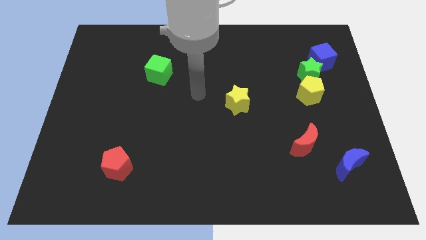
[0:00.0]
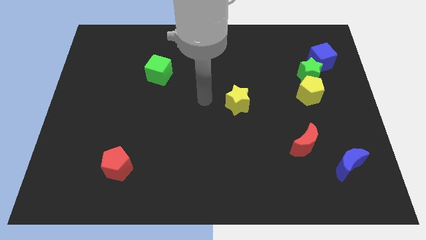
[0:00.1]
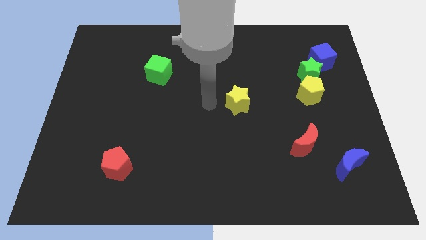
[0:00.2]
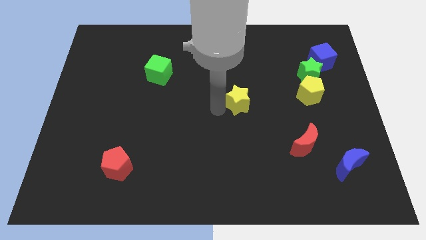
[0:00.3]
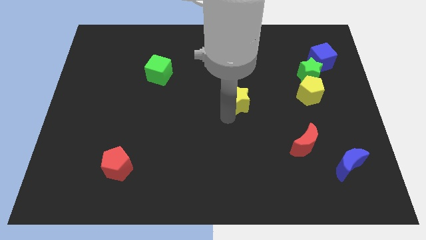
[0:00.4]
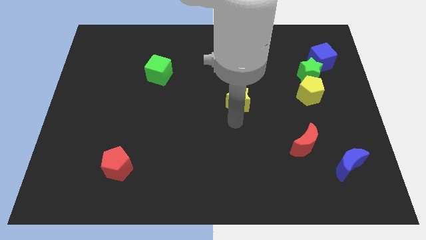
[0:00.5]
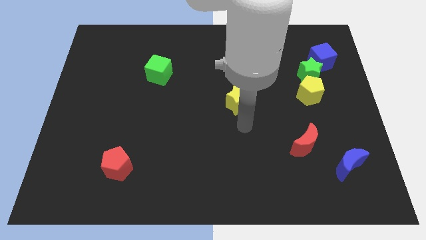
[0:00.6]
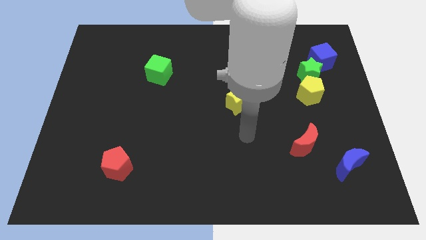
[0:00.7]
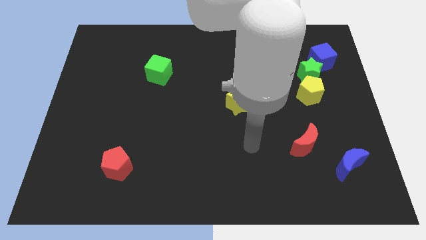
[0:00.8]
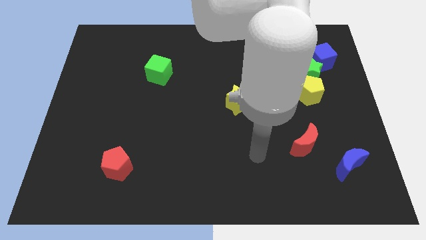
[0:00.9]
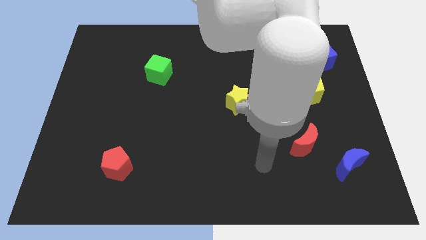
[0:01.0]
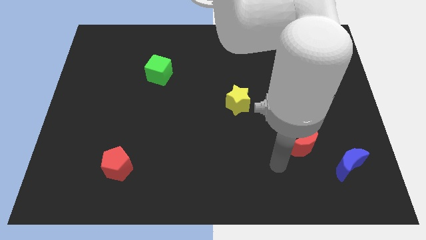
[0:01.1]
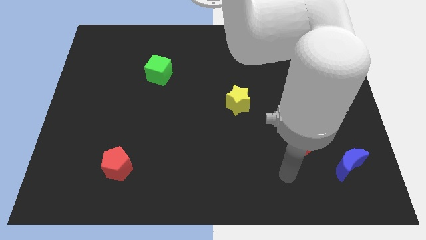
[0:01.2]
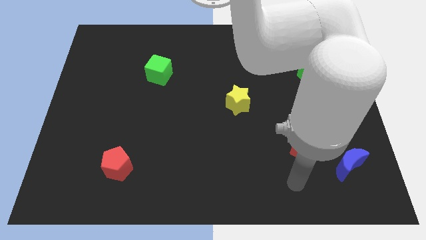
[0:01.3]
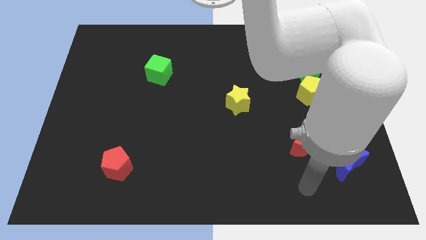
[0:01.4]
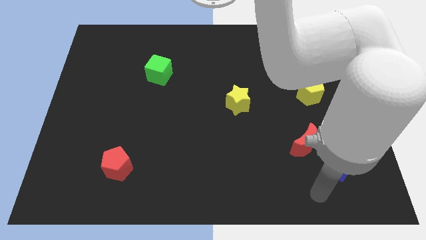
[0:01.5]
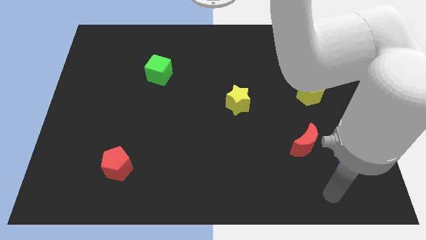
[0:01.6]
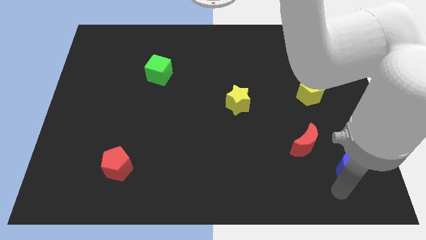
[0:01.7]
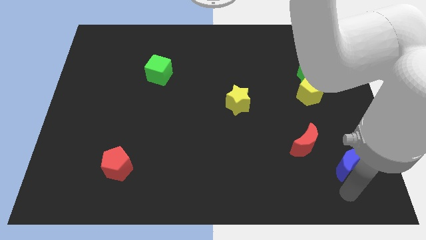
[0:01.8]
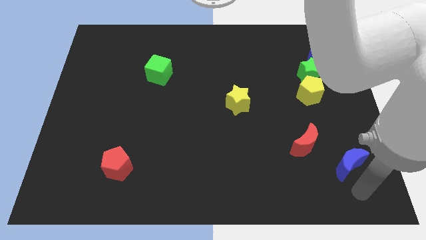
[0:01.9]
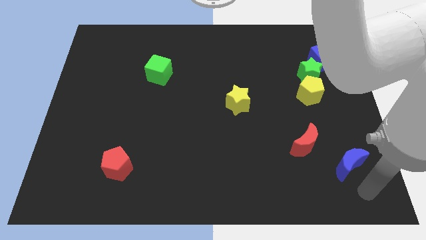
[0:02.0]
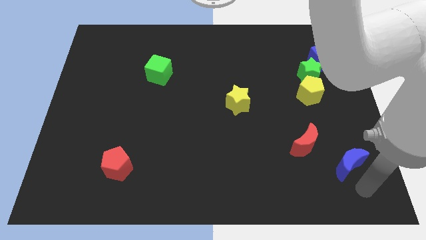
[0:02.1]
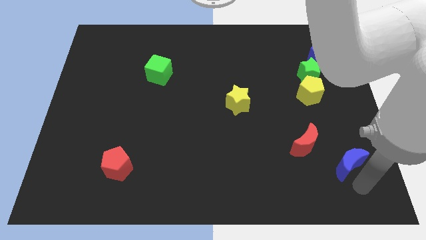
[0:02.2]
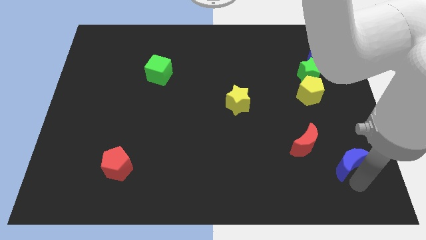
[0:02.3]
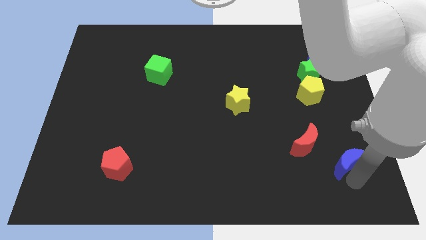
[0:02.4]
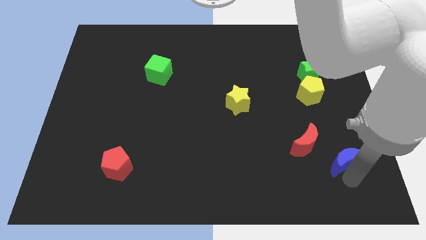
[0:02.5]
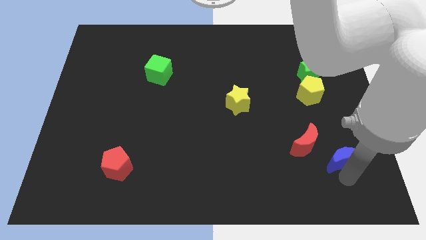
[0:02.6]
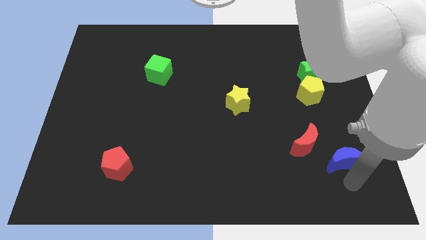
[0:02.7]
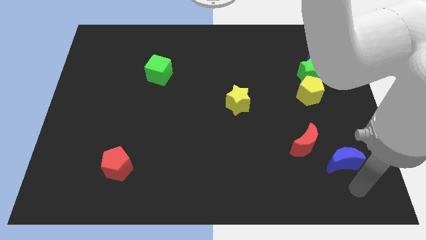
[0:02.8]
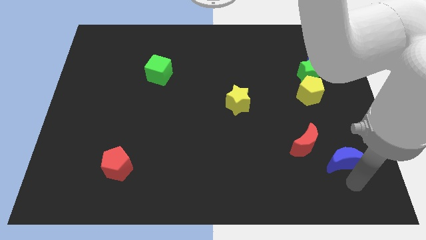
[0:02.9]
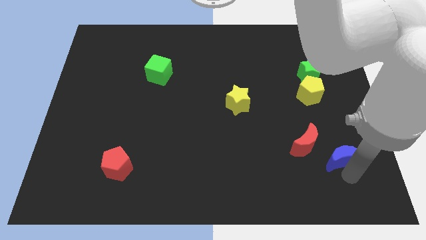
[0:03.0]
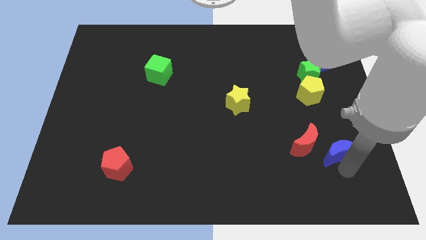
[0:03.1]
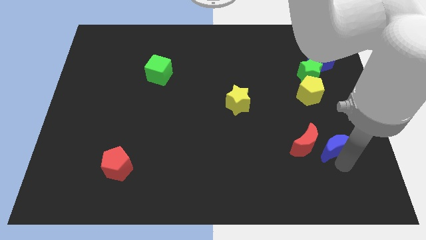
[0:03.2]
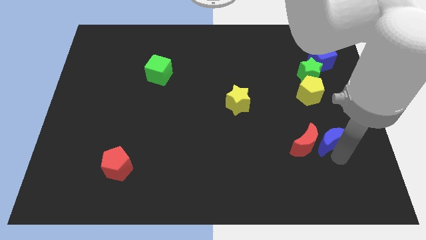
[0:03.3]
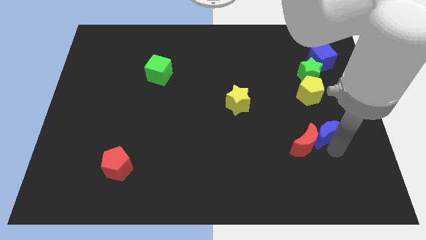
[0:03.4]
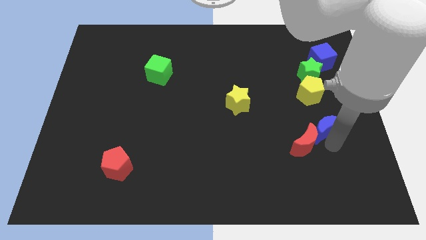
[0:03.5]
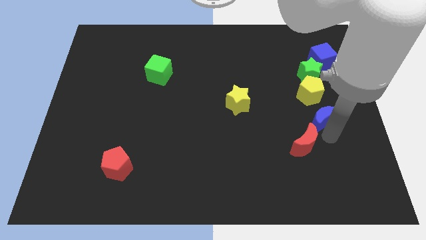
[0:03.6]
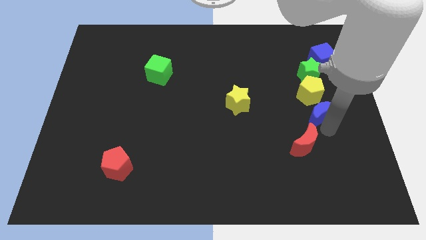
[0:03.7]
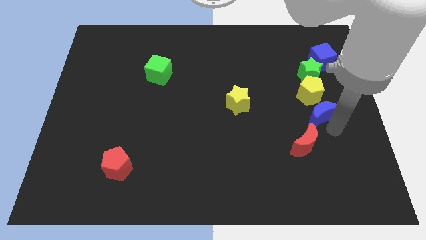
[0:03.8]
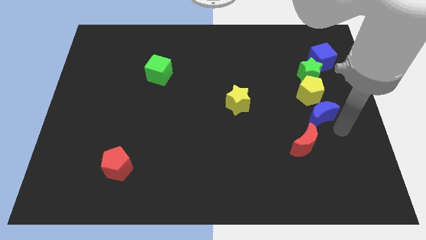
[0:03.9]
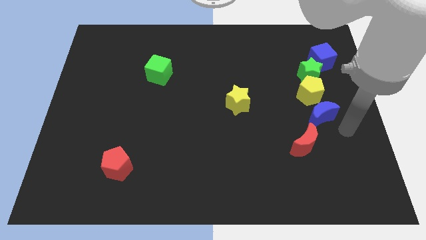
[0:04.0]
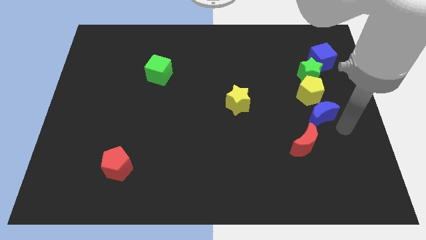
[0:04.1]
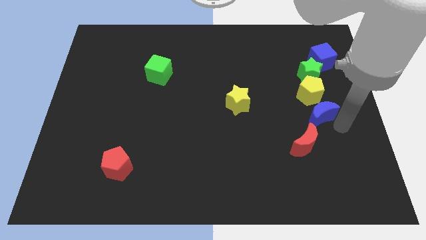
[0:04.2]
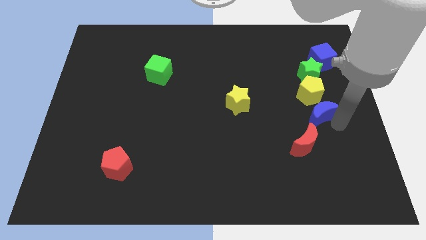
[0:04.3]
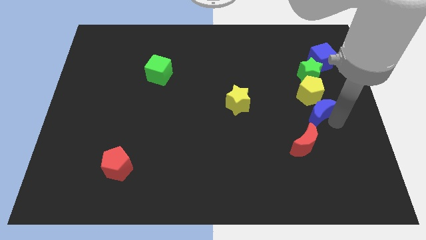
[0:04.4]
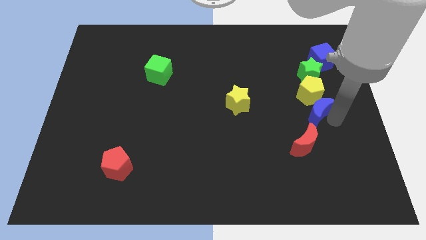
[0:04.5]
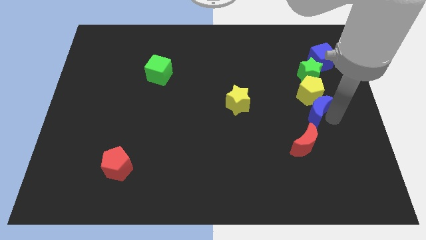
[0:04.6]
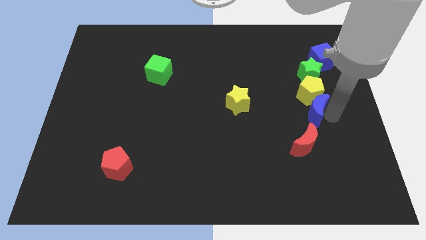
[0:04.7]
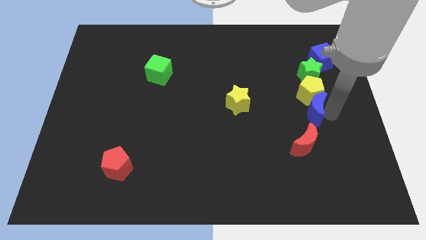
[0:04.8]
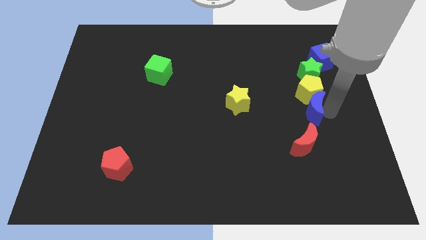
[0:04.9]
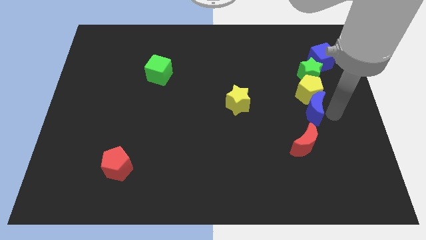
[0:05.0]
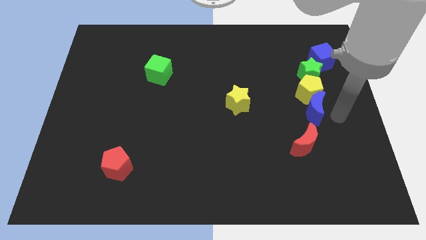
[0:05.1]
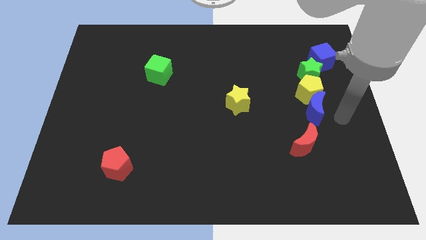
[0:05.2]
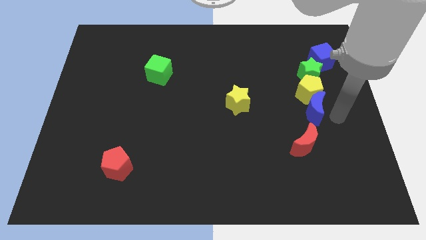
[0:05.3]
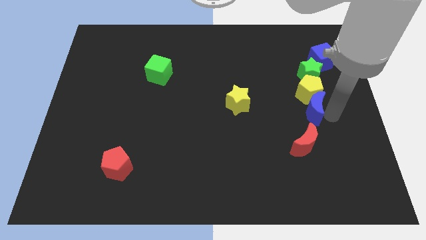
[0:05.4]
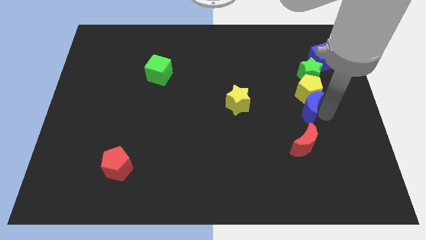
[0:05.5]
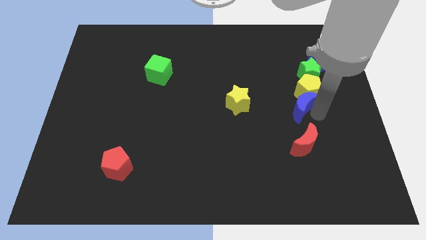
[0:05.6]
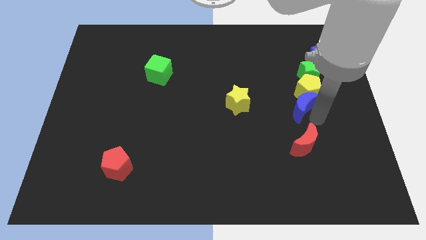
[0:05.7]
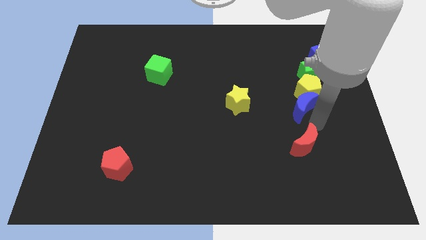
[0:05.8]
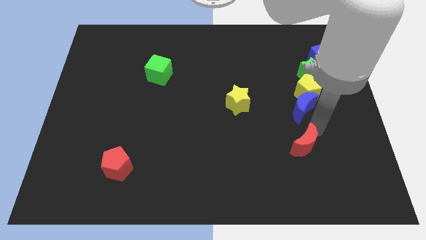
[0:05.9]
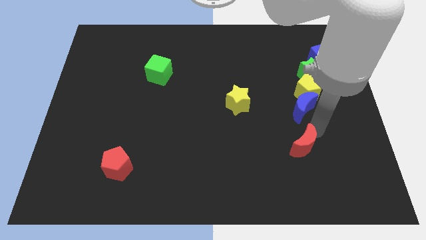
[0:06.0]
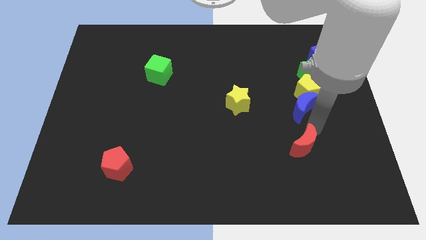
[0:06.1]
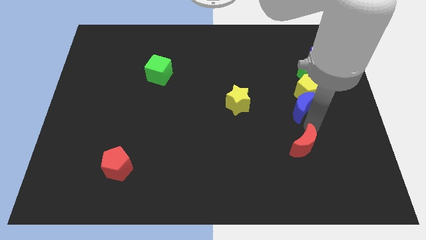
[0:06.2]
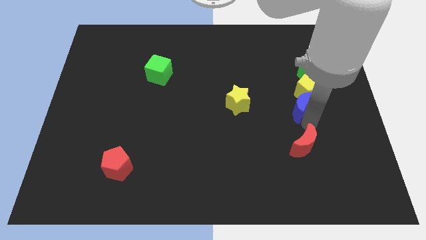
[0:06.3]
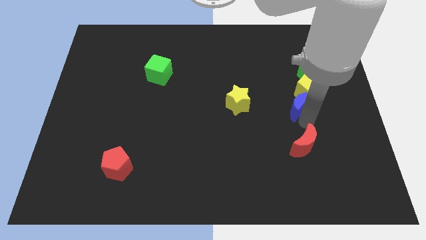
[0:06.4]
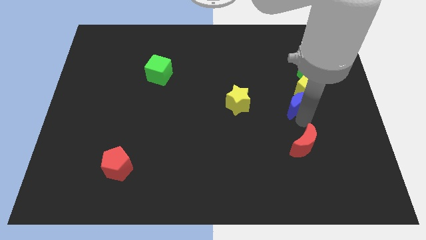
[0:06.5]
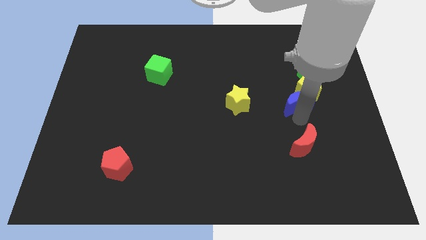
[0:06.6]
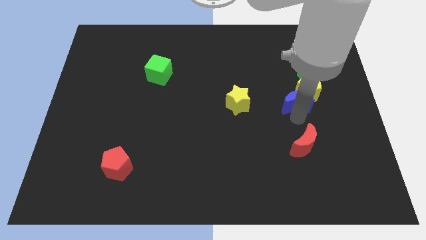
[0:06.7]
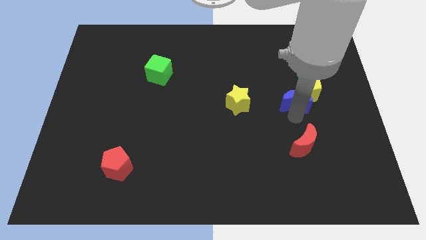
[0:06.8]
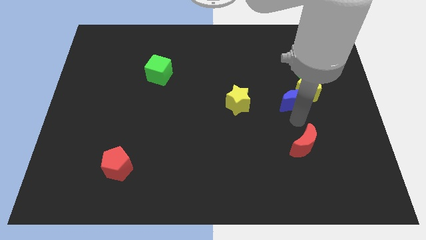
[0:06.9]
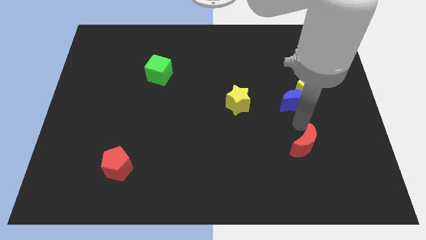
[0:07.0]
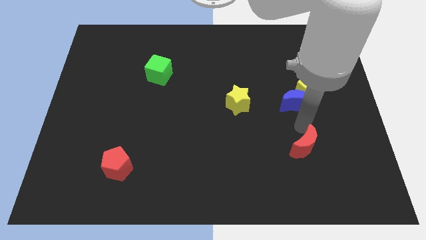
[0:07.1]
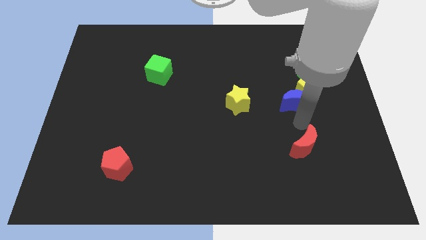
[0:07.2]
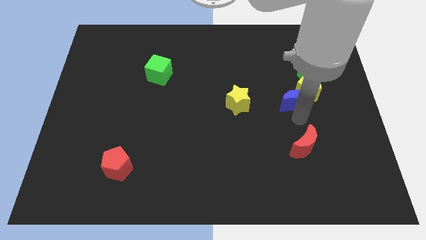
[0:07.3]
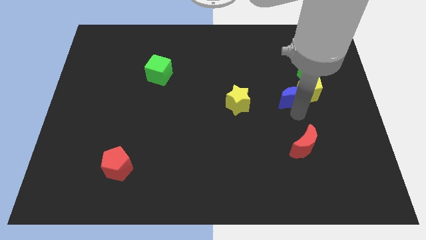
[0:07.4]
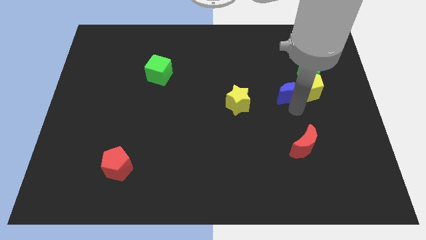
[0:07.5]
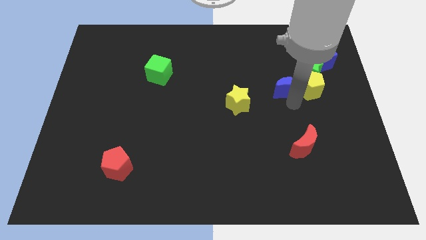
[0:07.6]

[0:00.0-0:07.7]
push the blue moon to the top left of the yellow pentagon
